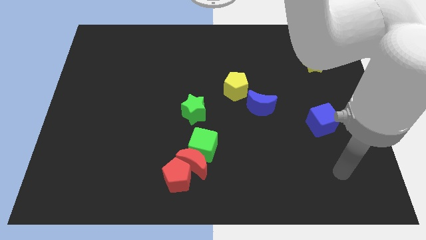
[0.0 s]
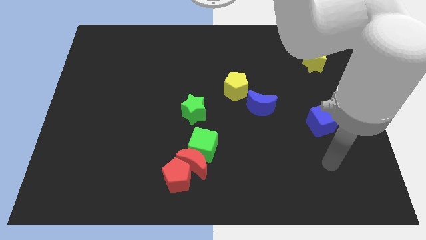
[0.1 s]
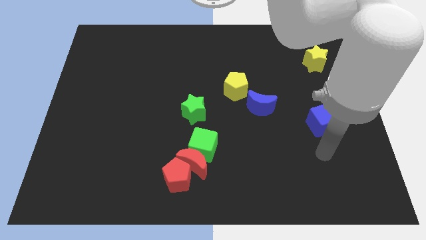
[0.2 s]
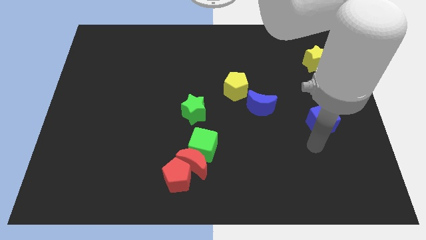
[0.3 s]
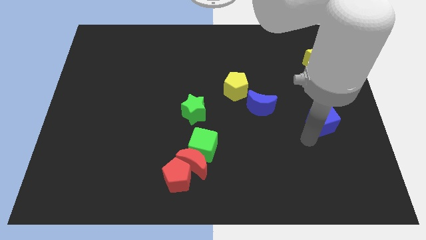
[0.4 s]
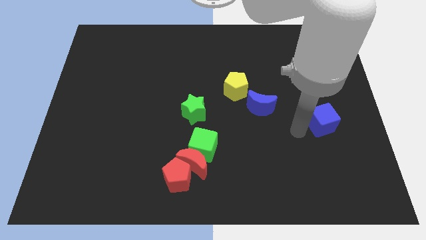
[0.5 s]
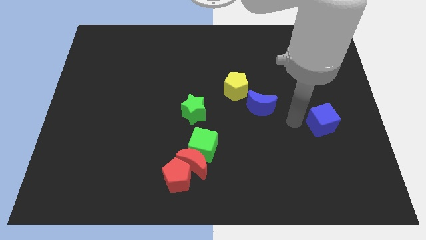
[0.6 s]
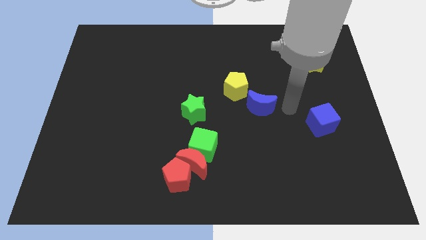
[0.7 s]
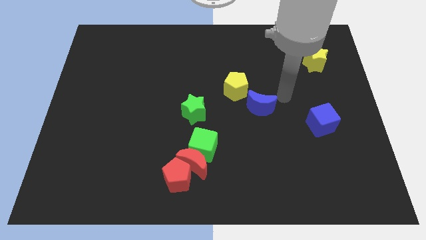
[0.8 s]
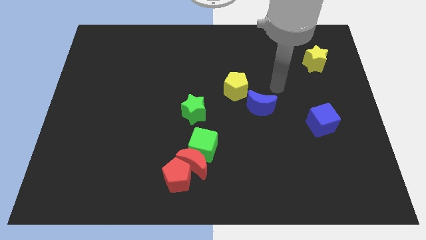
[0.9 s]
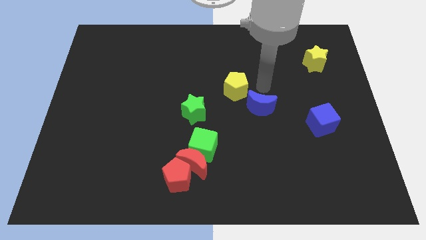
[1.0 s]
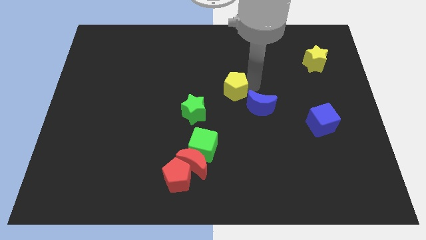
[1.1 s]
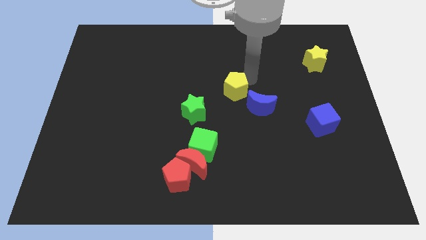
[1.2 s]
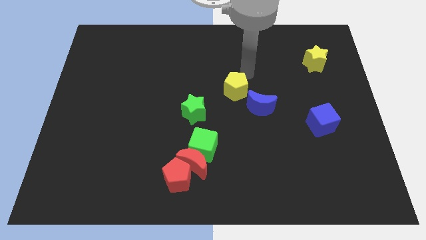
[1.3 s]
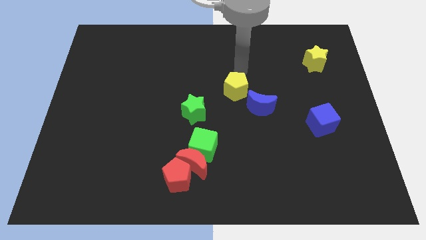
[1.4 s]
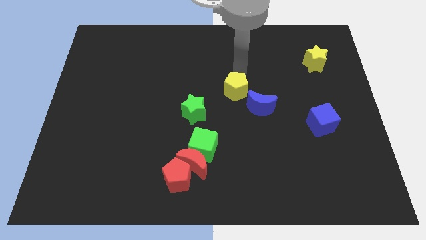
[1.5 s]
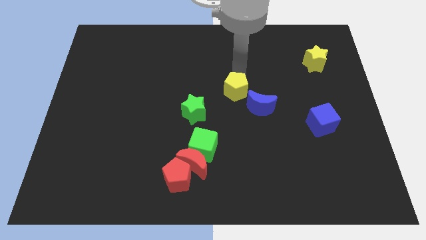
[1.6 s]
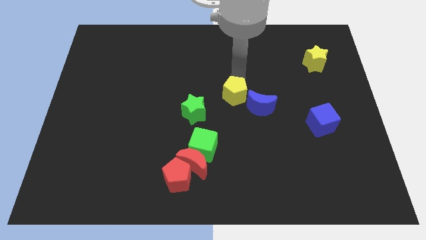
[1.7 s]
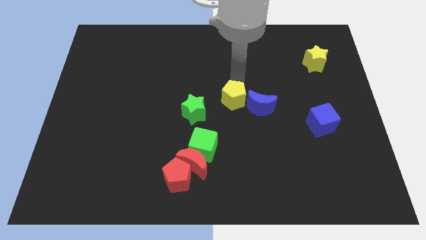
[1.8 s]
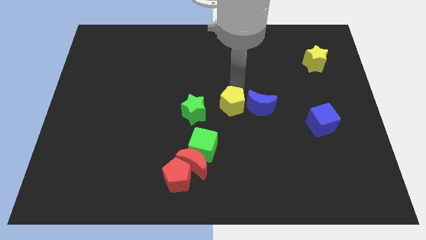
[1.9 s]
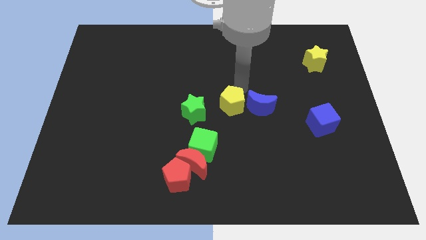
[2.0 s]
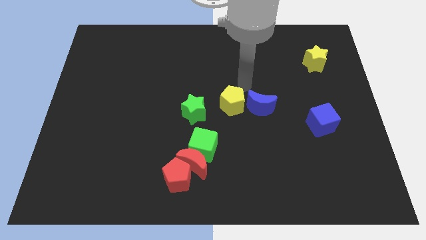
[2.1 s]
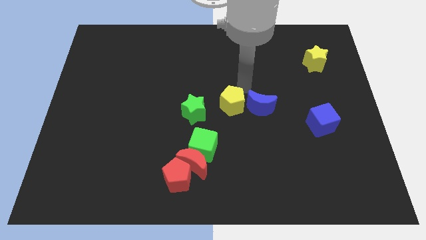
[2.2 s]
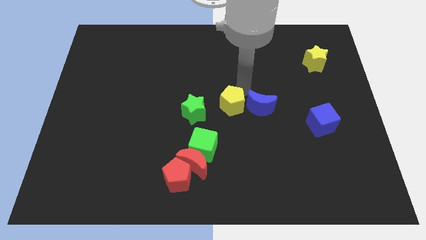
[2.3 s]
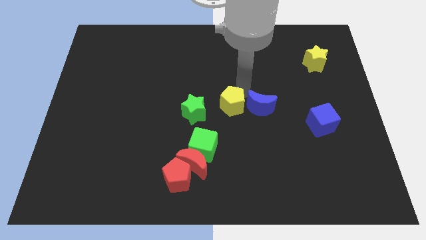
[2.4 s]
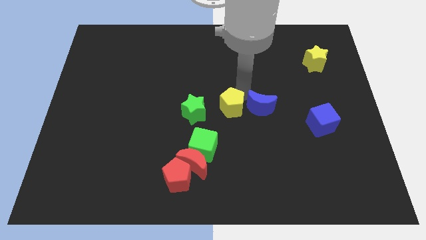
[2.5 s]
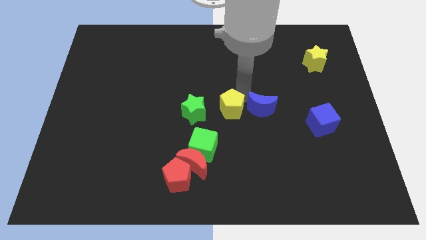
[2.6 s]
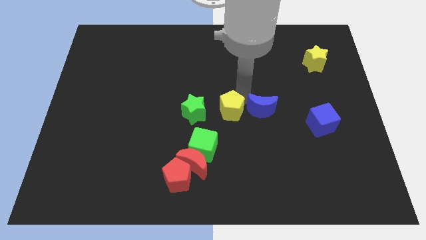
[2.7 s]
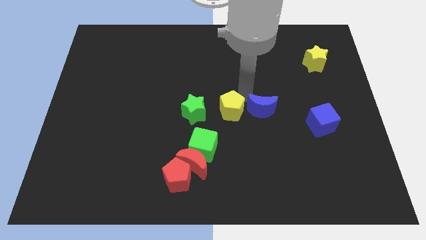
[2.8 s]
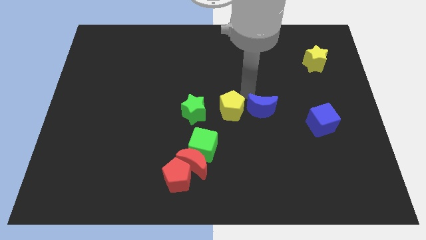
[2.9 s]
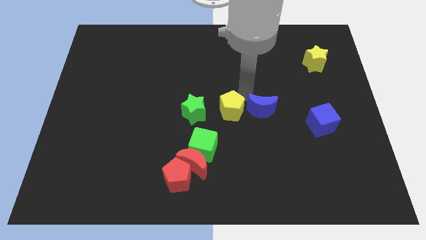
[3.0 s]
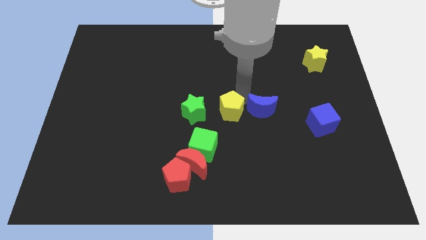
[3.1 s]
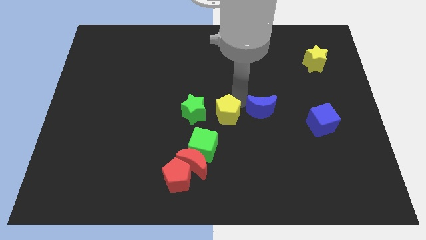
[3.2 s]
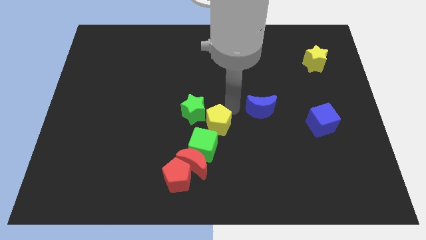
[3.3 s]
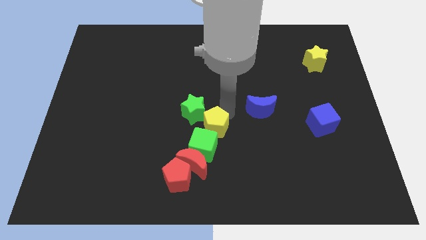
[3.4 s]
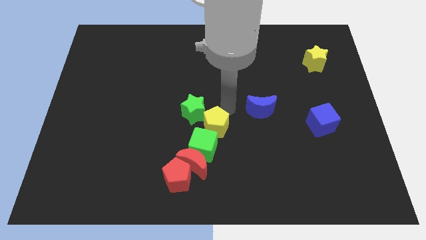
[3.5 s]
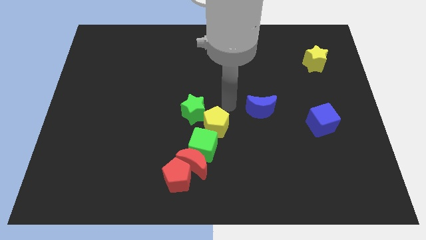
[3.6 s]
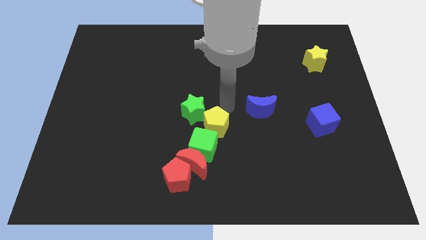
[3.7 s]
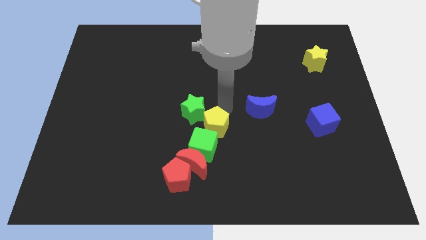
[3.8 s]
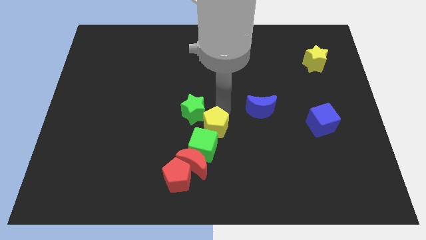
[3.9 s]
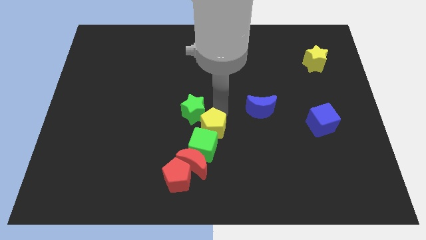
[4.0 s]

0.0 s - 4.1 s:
slide the yellow pentagon close to the green cube

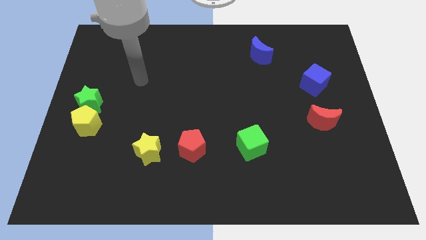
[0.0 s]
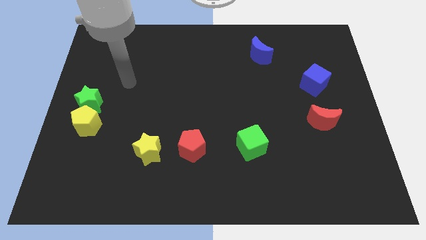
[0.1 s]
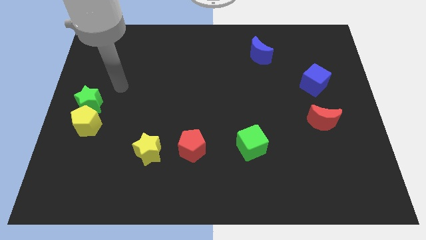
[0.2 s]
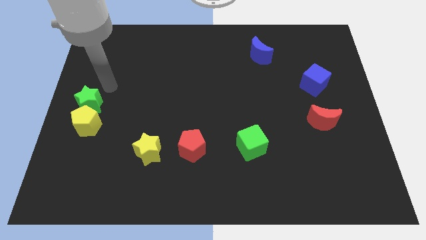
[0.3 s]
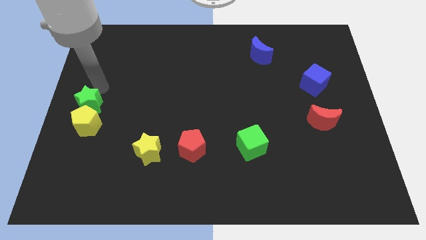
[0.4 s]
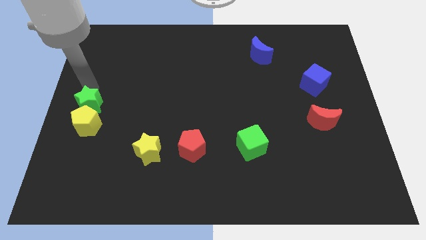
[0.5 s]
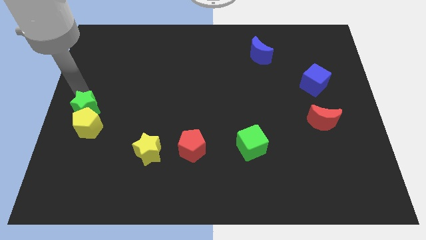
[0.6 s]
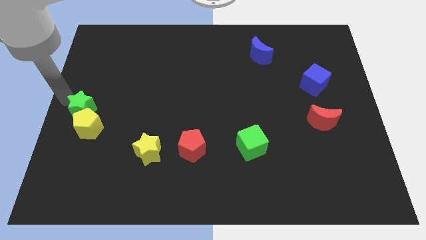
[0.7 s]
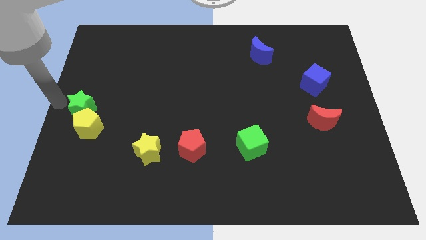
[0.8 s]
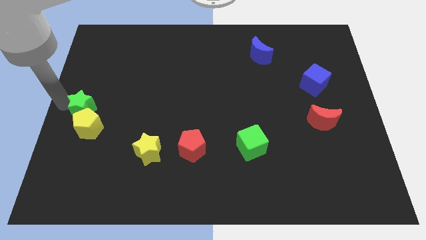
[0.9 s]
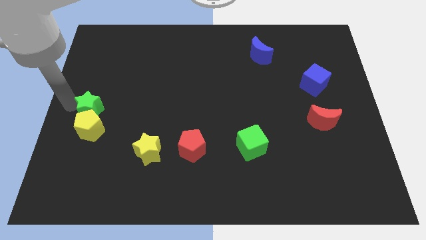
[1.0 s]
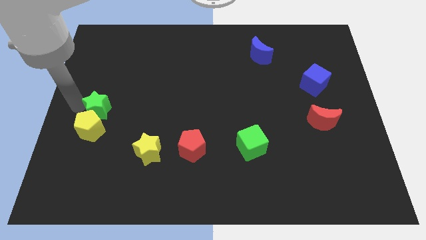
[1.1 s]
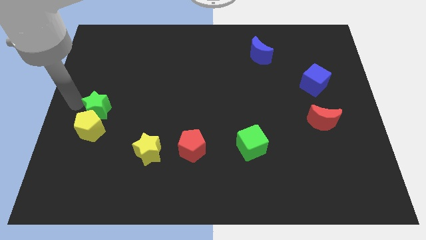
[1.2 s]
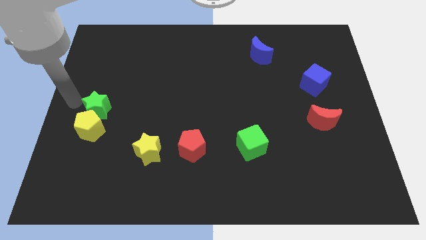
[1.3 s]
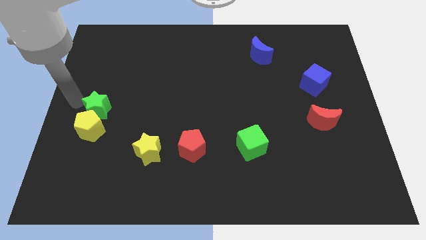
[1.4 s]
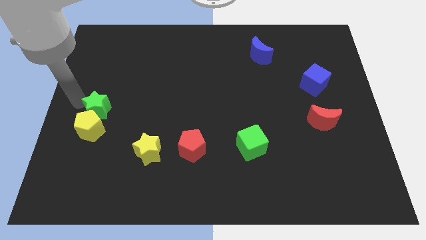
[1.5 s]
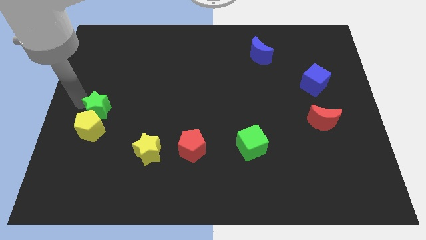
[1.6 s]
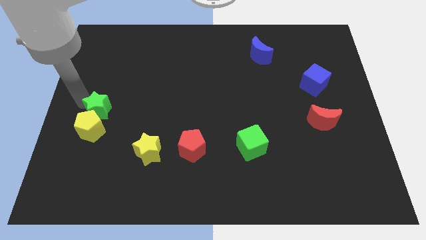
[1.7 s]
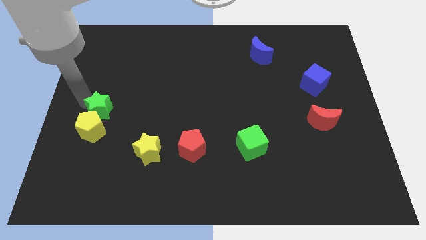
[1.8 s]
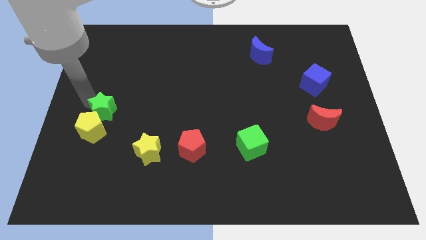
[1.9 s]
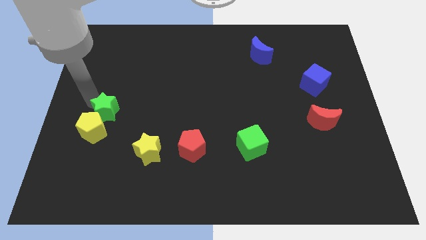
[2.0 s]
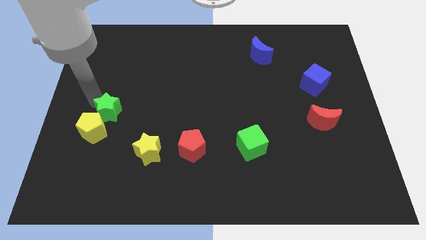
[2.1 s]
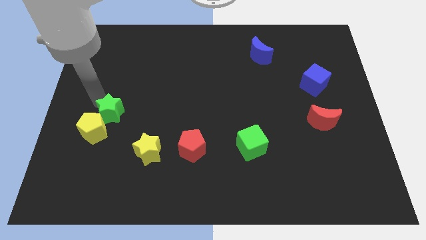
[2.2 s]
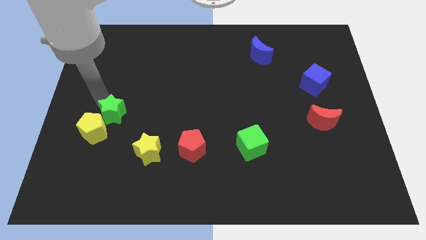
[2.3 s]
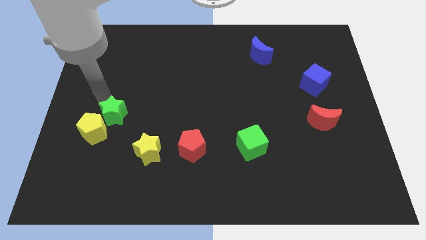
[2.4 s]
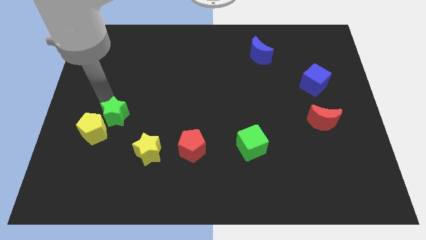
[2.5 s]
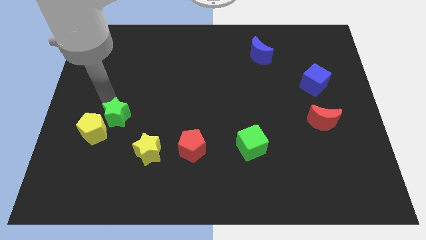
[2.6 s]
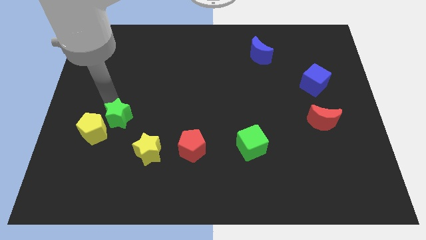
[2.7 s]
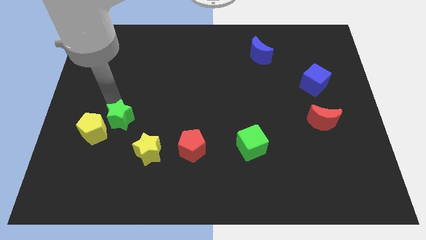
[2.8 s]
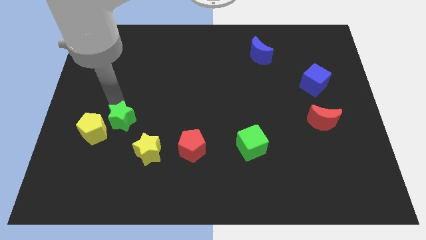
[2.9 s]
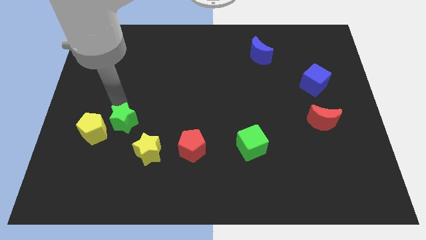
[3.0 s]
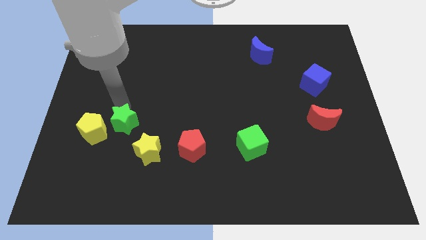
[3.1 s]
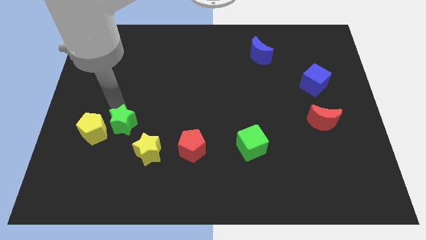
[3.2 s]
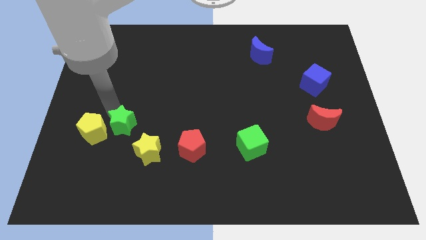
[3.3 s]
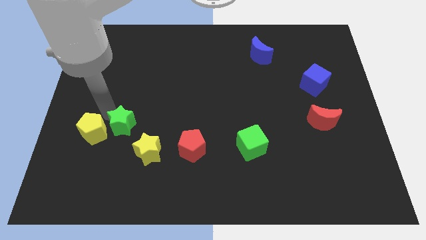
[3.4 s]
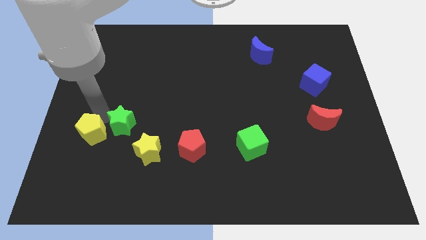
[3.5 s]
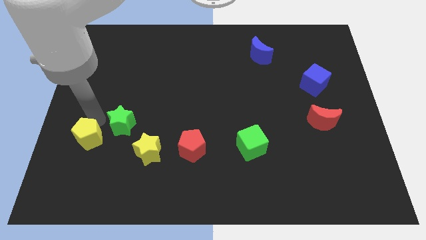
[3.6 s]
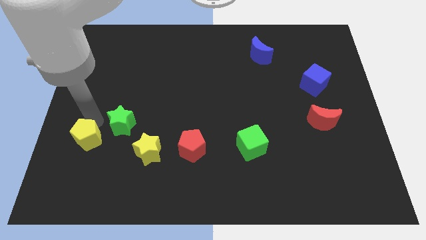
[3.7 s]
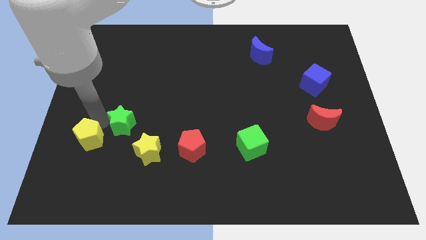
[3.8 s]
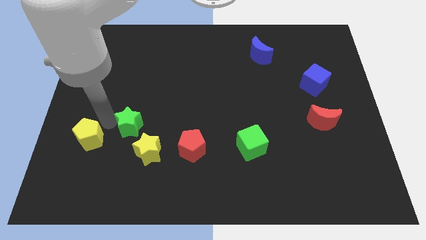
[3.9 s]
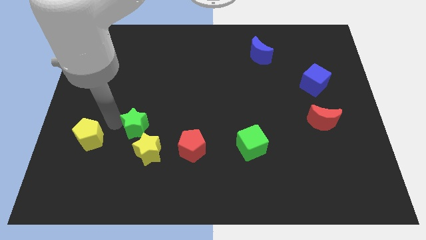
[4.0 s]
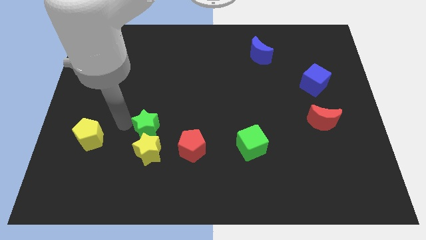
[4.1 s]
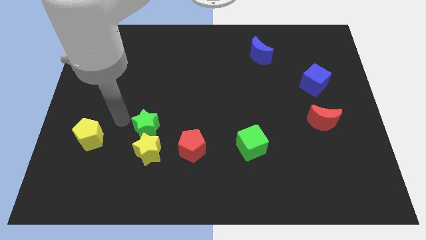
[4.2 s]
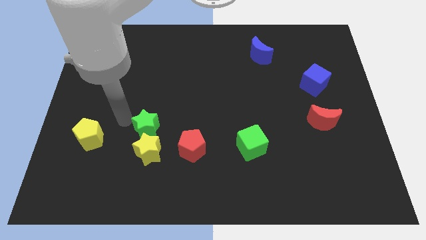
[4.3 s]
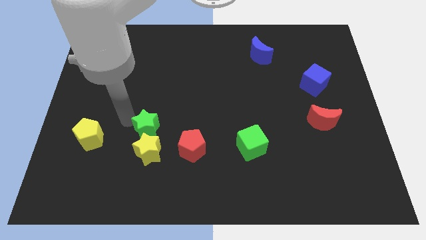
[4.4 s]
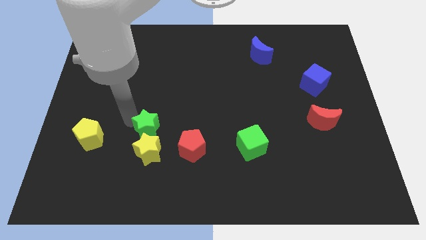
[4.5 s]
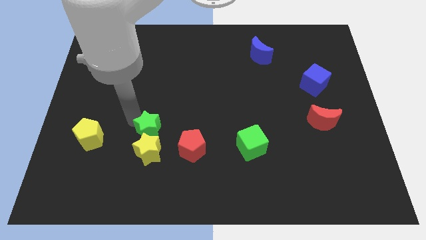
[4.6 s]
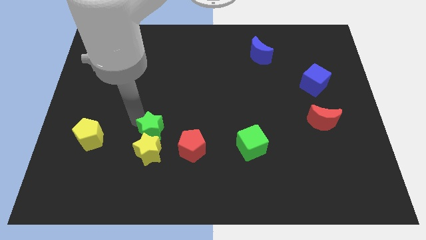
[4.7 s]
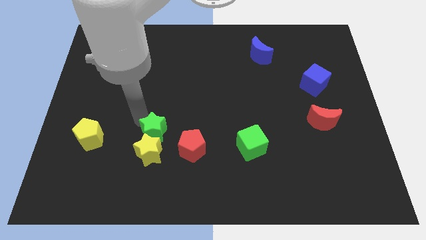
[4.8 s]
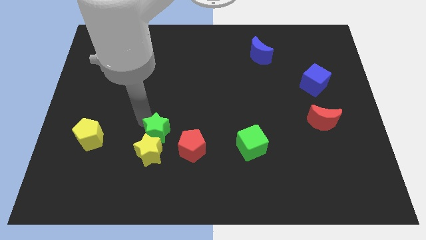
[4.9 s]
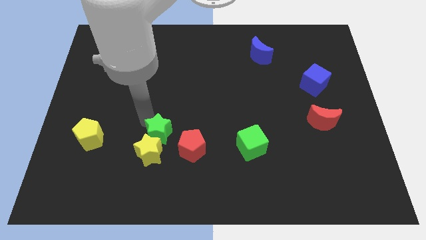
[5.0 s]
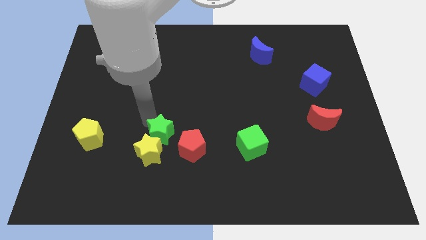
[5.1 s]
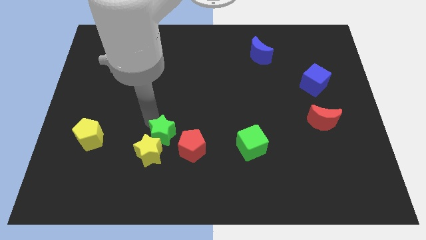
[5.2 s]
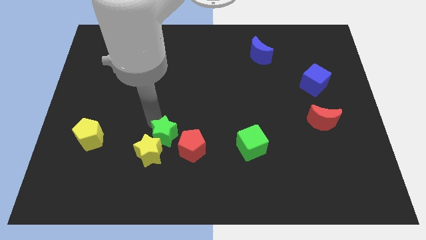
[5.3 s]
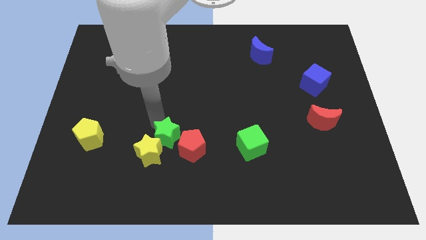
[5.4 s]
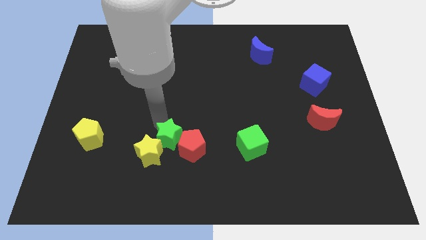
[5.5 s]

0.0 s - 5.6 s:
slide the green star to the red pentagon
